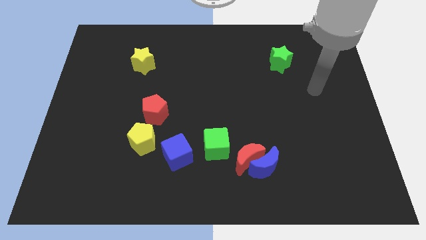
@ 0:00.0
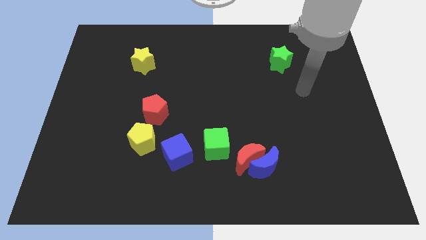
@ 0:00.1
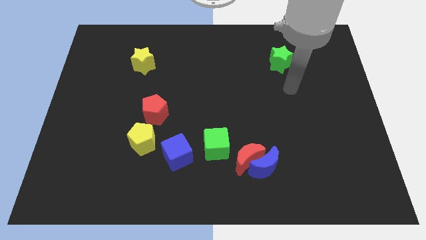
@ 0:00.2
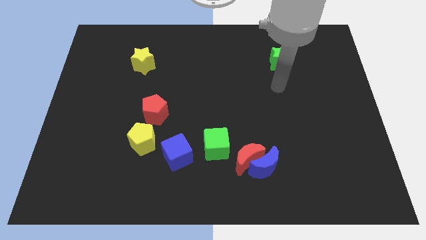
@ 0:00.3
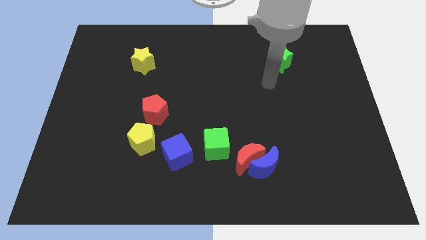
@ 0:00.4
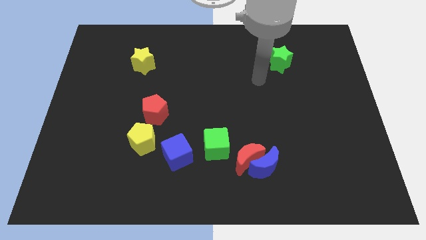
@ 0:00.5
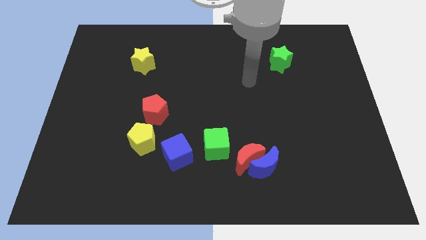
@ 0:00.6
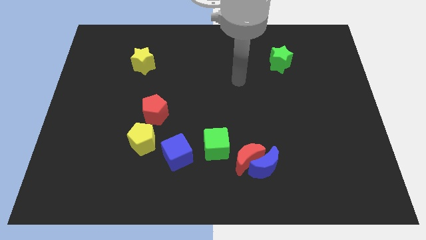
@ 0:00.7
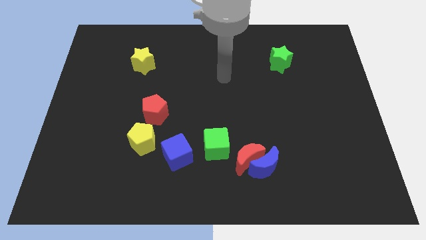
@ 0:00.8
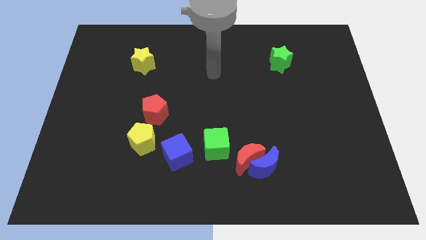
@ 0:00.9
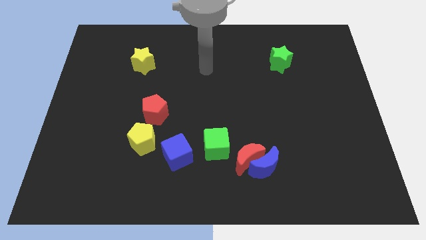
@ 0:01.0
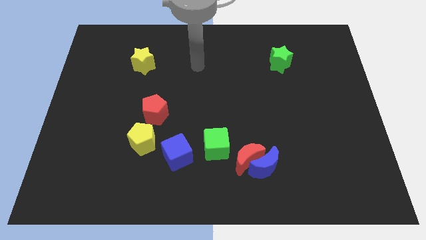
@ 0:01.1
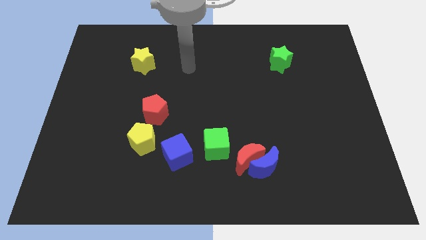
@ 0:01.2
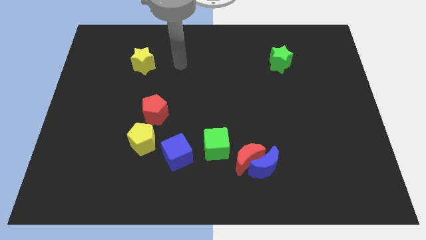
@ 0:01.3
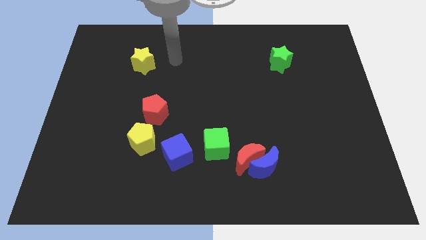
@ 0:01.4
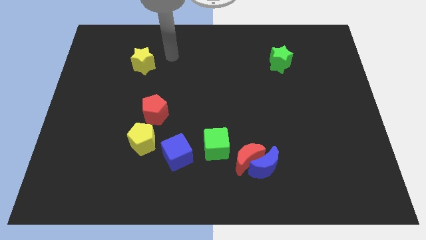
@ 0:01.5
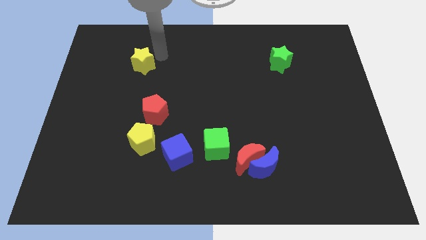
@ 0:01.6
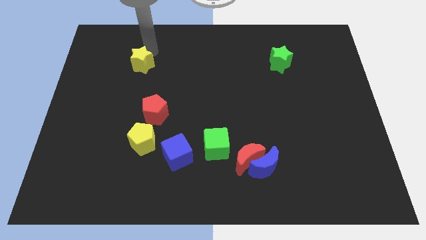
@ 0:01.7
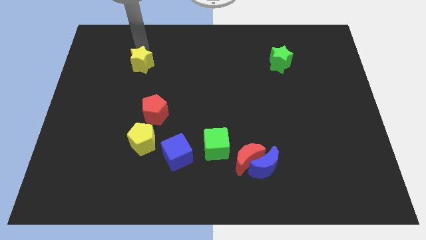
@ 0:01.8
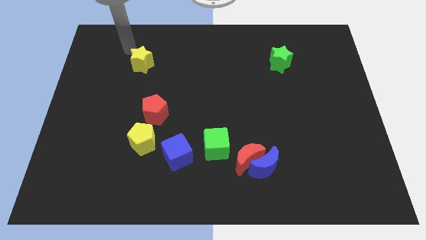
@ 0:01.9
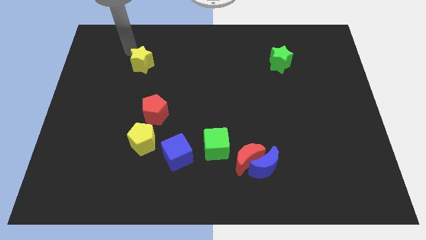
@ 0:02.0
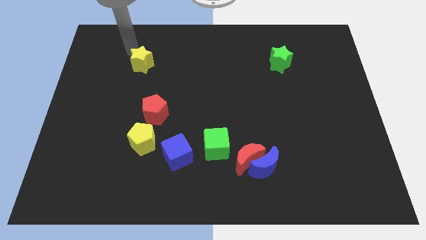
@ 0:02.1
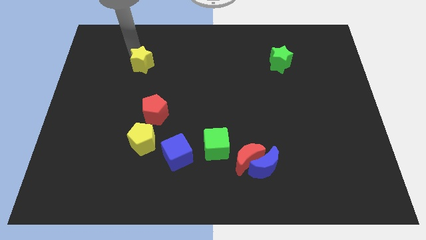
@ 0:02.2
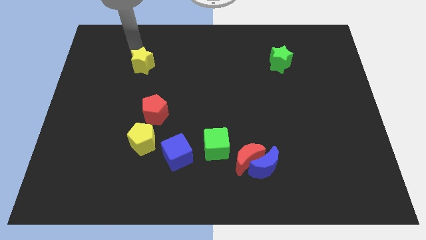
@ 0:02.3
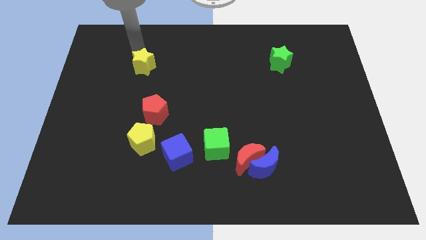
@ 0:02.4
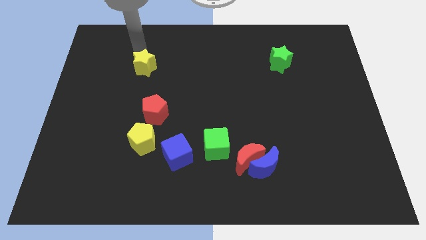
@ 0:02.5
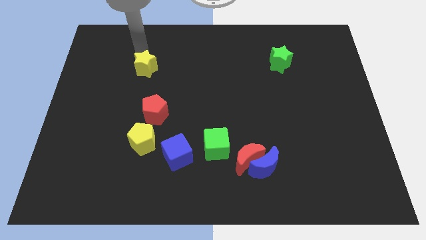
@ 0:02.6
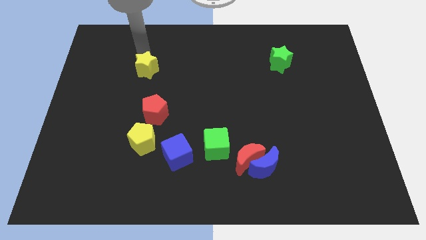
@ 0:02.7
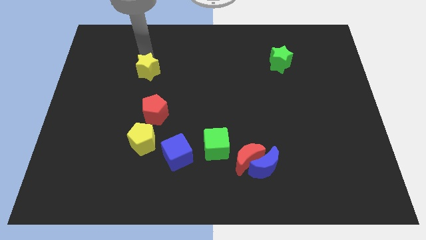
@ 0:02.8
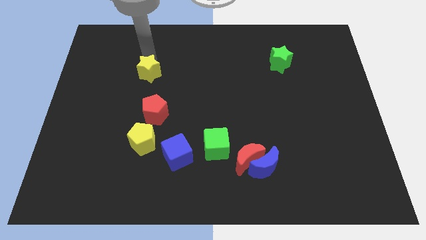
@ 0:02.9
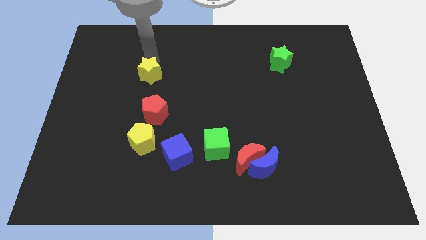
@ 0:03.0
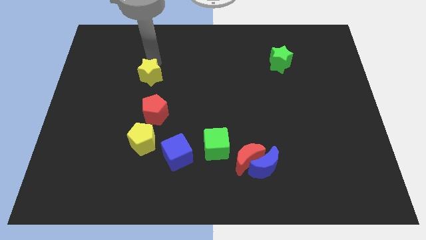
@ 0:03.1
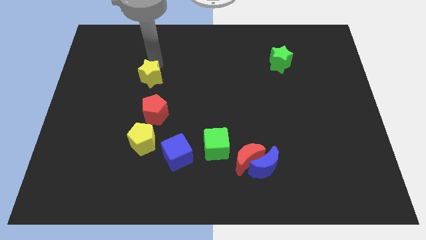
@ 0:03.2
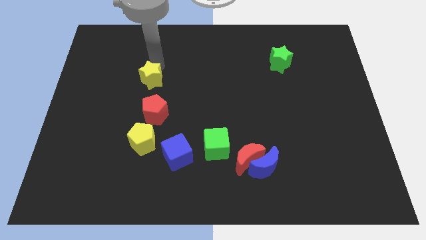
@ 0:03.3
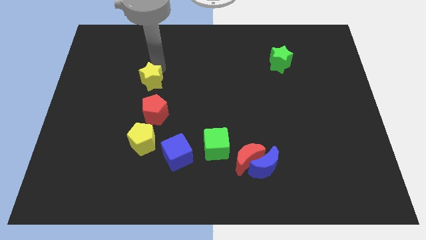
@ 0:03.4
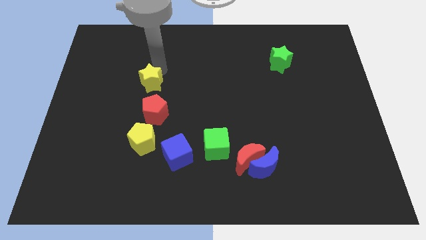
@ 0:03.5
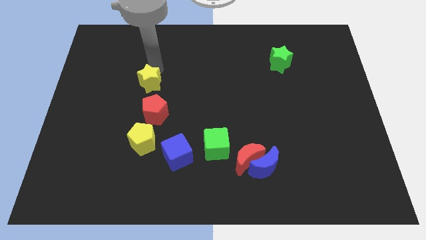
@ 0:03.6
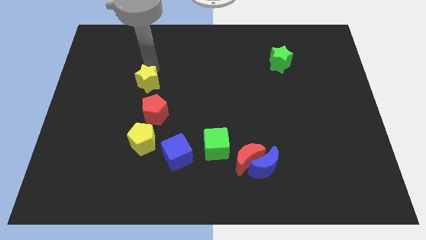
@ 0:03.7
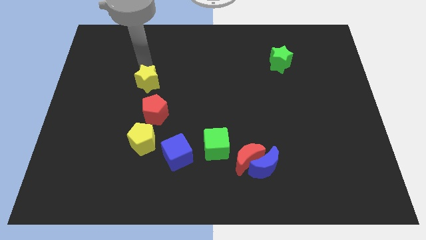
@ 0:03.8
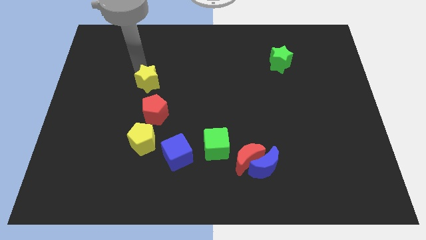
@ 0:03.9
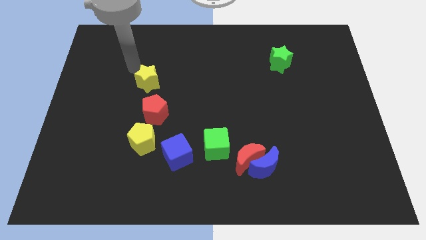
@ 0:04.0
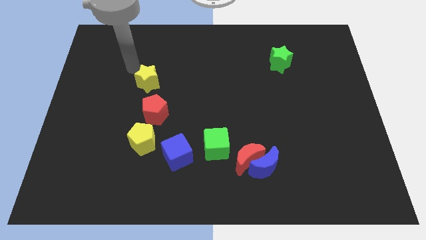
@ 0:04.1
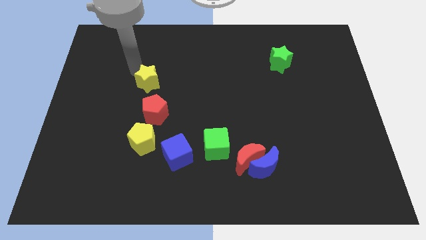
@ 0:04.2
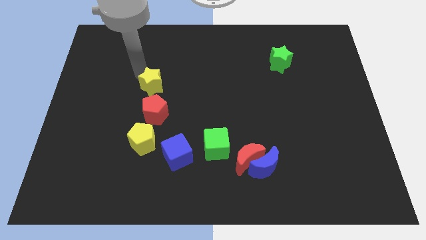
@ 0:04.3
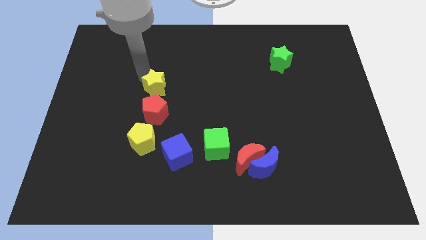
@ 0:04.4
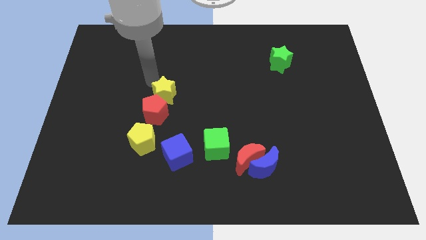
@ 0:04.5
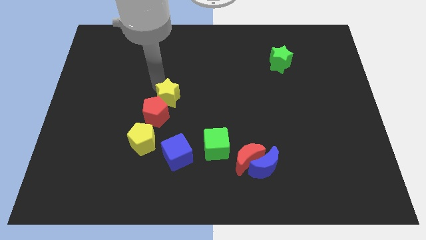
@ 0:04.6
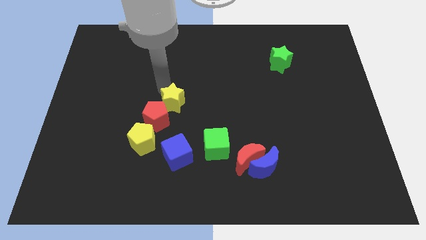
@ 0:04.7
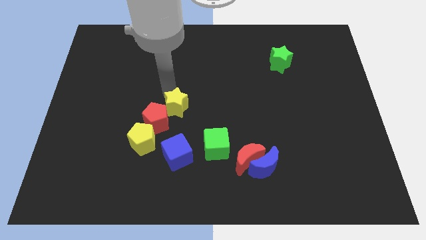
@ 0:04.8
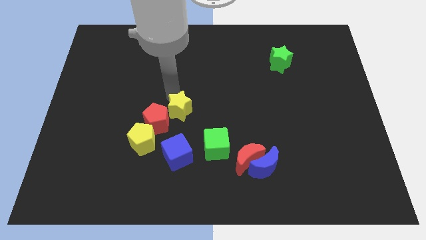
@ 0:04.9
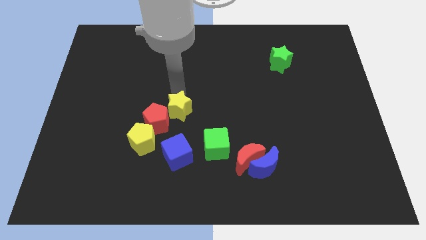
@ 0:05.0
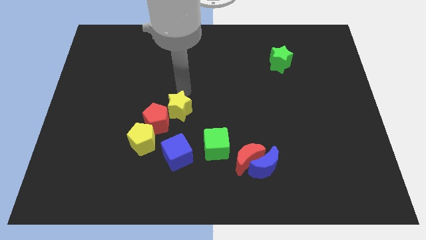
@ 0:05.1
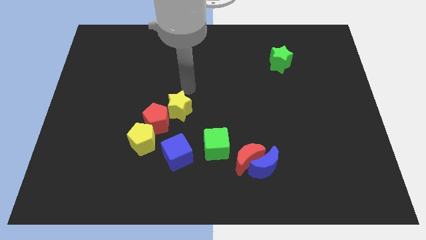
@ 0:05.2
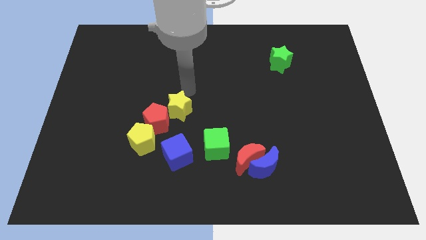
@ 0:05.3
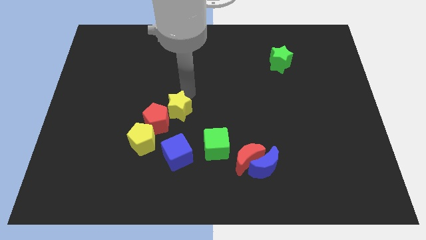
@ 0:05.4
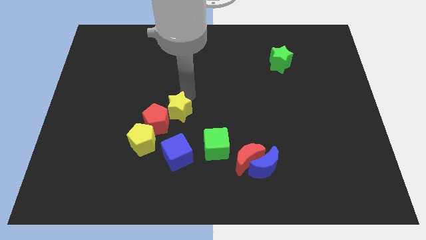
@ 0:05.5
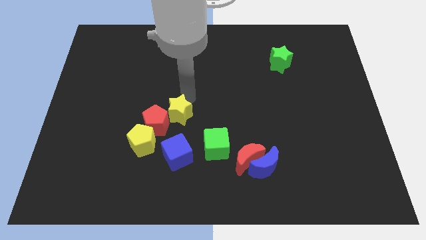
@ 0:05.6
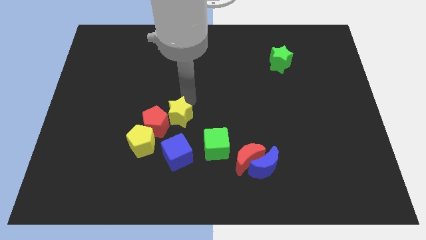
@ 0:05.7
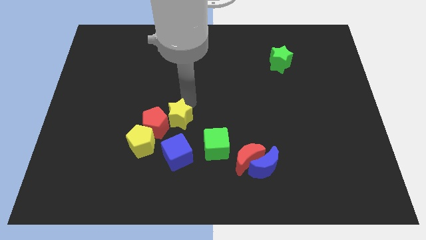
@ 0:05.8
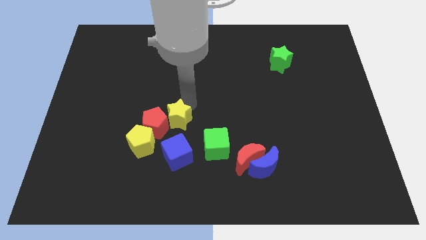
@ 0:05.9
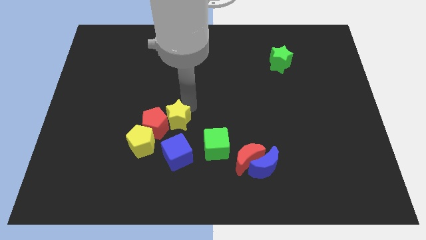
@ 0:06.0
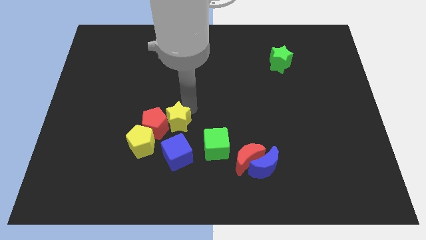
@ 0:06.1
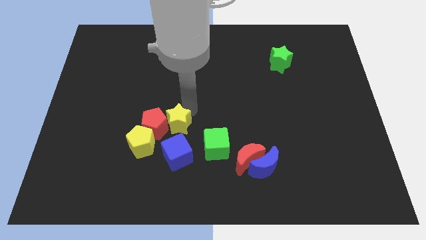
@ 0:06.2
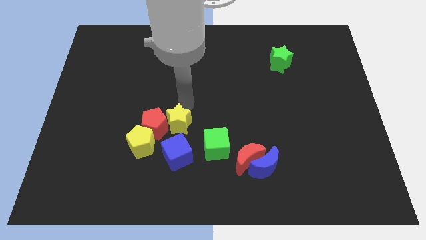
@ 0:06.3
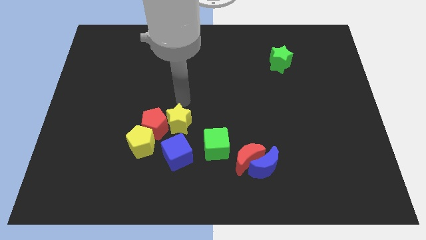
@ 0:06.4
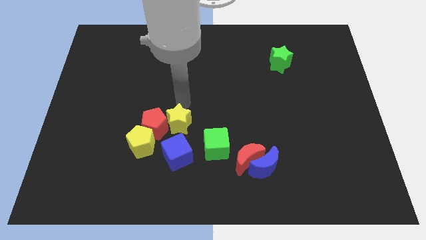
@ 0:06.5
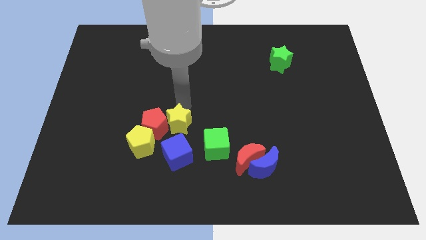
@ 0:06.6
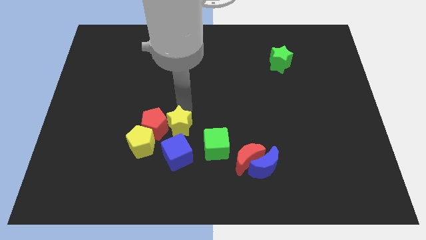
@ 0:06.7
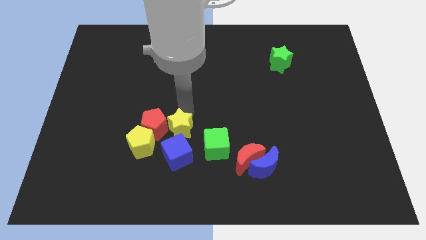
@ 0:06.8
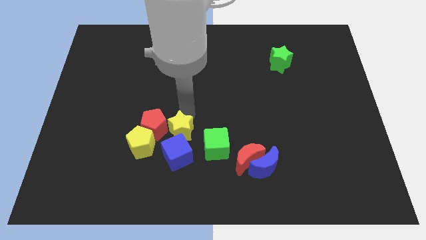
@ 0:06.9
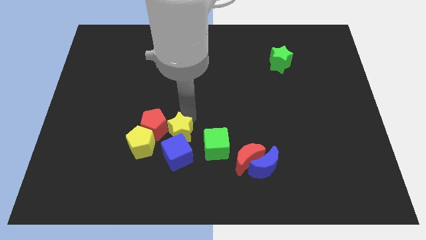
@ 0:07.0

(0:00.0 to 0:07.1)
put the yellow star close to the blue cube
